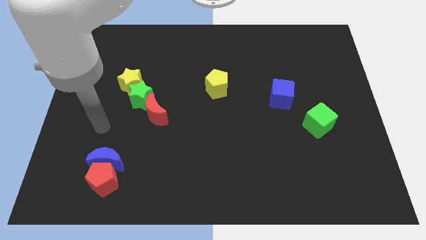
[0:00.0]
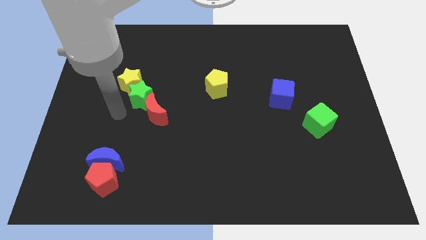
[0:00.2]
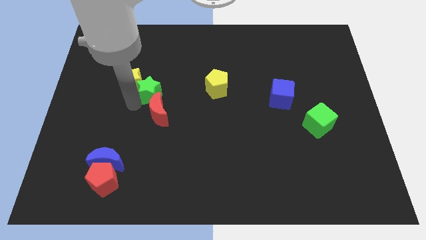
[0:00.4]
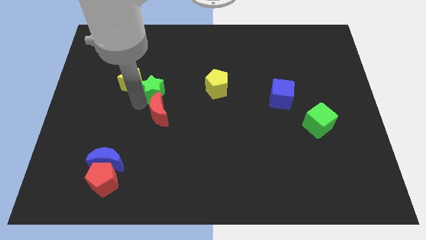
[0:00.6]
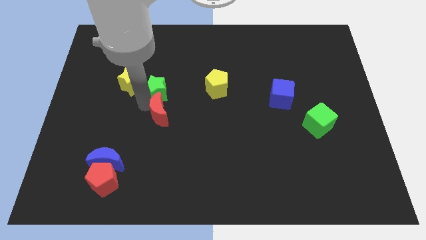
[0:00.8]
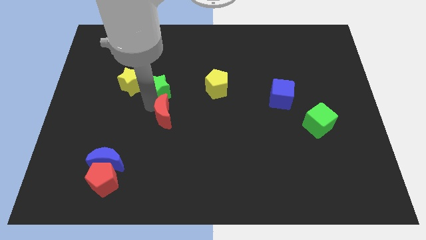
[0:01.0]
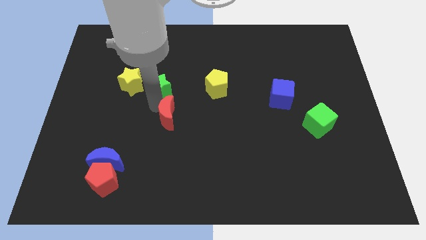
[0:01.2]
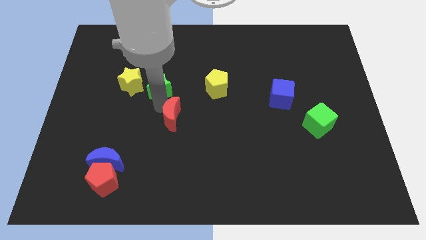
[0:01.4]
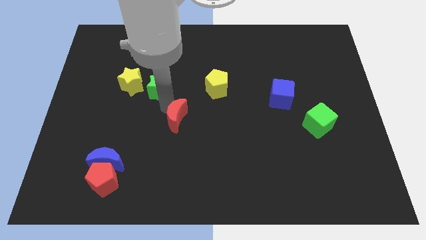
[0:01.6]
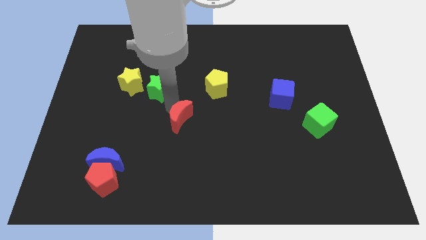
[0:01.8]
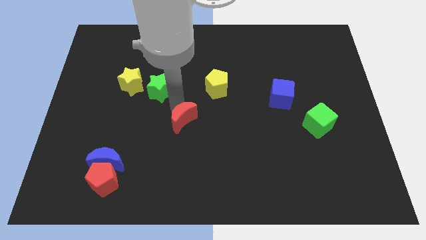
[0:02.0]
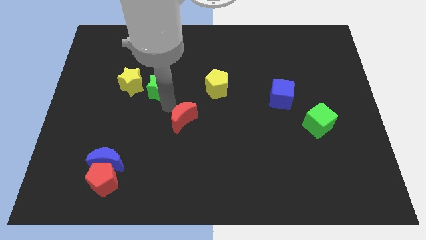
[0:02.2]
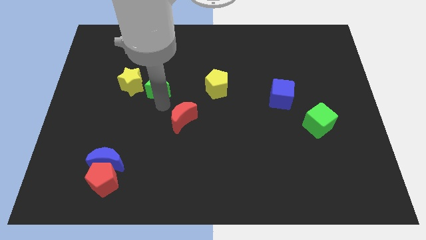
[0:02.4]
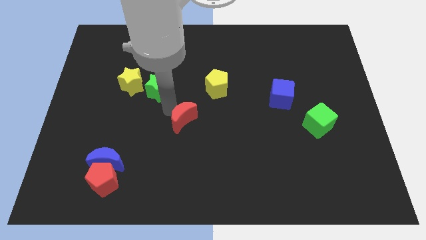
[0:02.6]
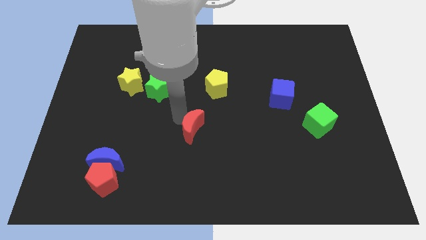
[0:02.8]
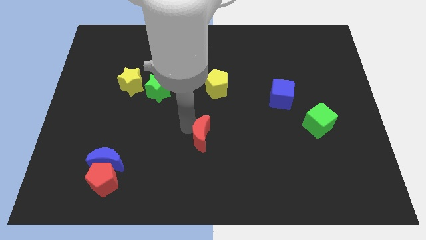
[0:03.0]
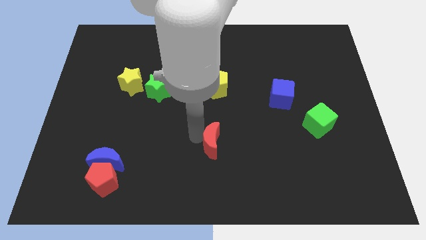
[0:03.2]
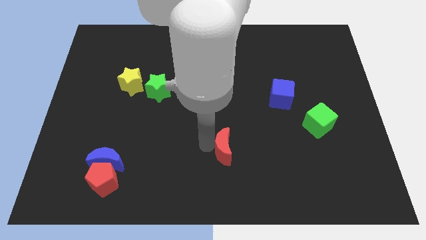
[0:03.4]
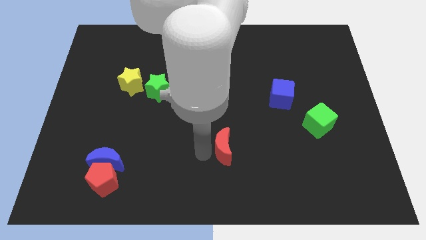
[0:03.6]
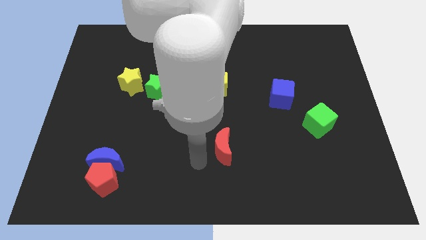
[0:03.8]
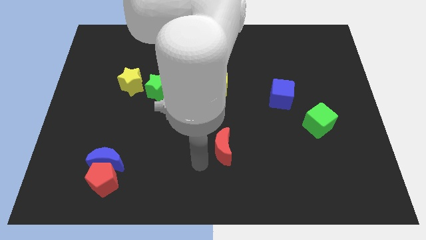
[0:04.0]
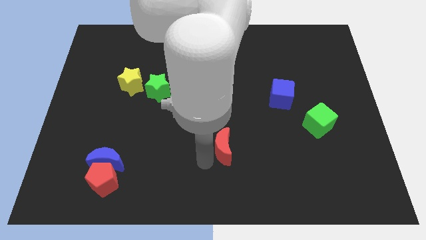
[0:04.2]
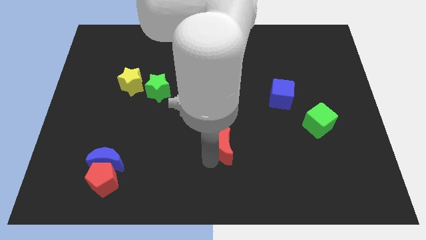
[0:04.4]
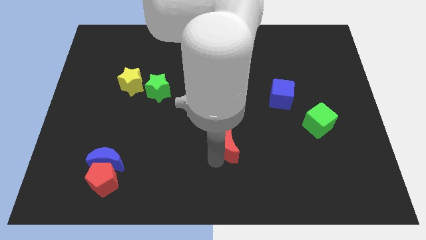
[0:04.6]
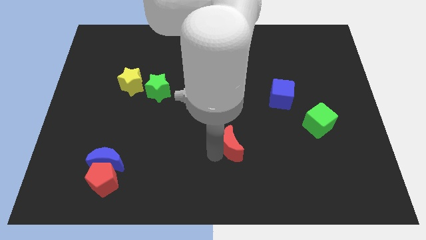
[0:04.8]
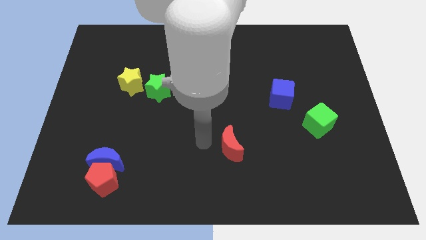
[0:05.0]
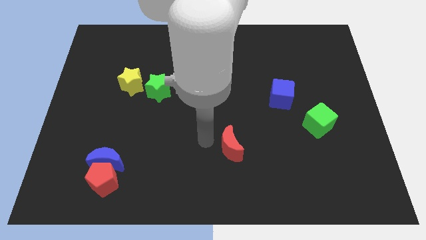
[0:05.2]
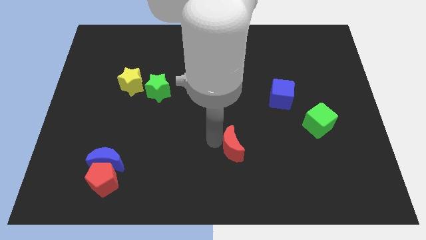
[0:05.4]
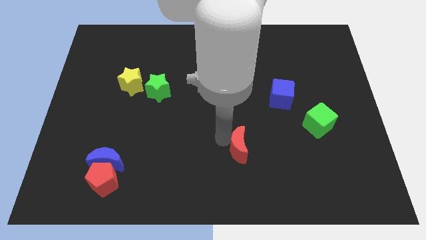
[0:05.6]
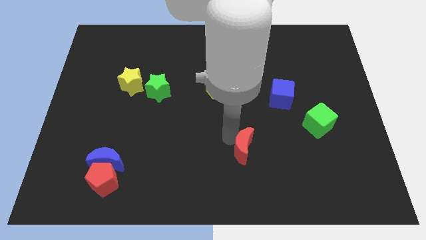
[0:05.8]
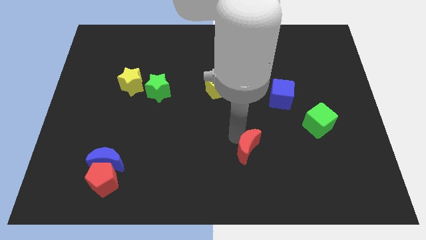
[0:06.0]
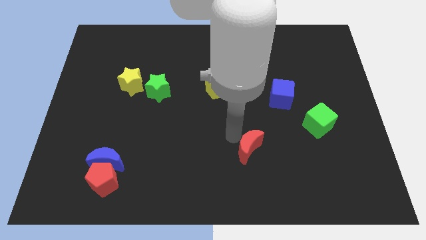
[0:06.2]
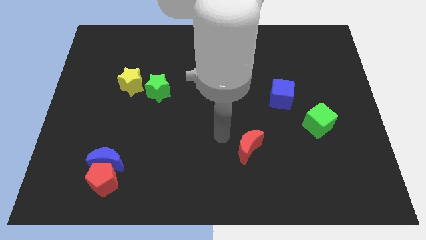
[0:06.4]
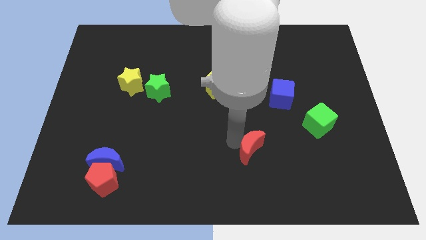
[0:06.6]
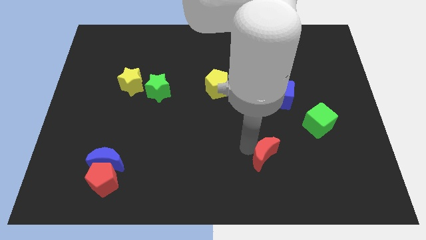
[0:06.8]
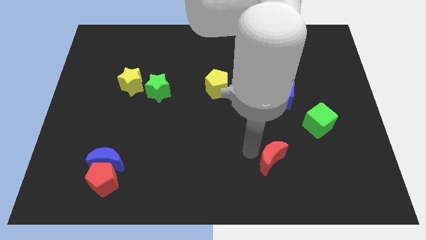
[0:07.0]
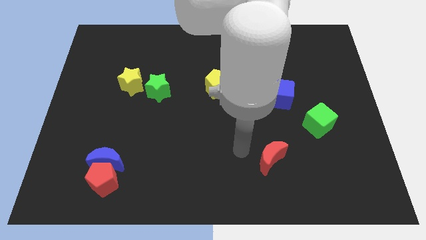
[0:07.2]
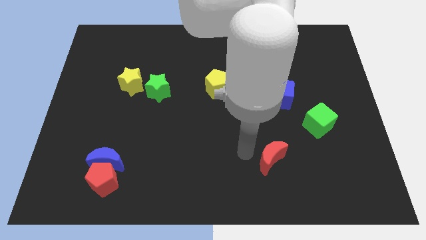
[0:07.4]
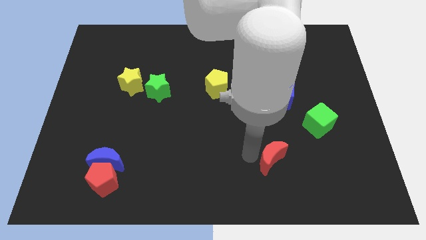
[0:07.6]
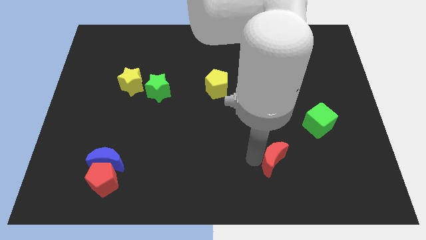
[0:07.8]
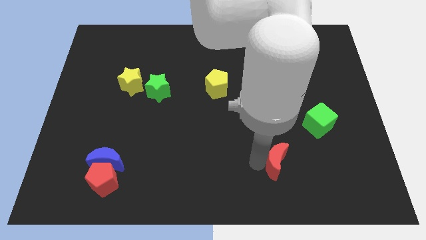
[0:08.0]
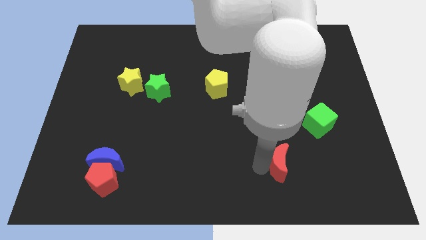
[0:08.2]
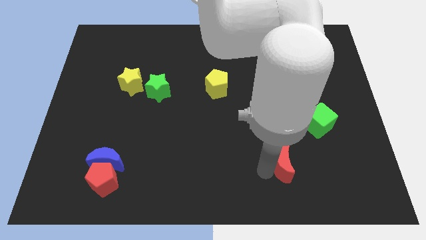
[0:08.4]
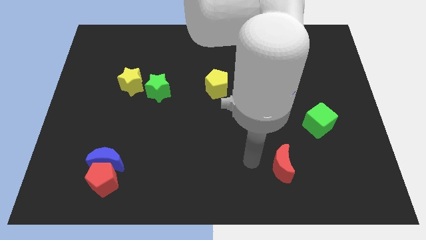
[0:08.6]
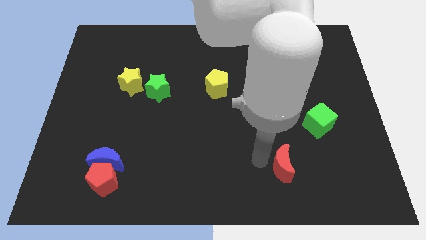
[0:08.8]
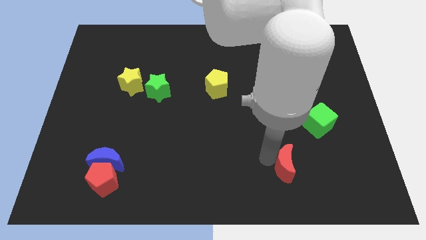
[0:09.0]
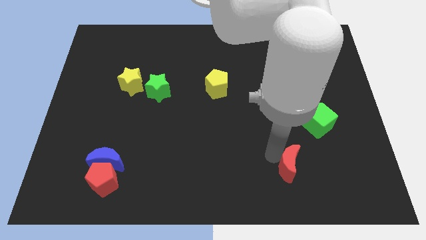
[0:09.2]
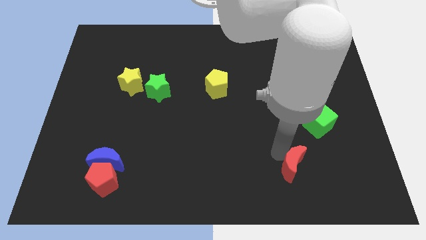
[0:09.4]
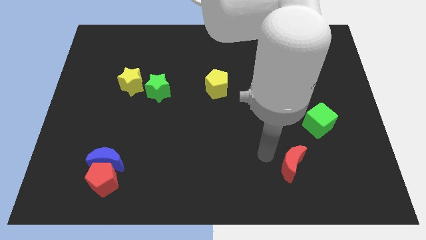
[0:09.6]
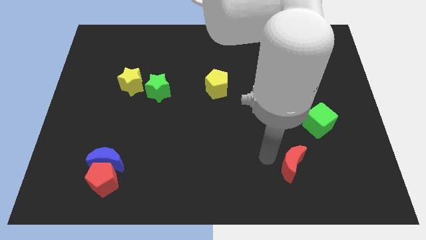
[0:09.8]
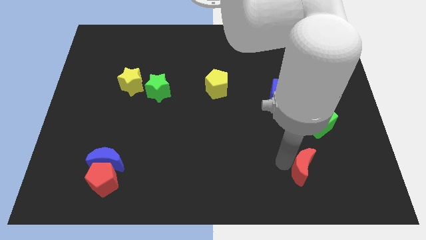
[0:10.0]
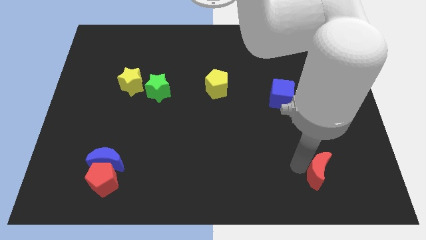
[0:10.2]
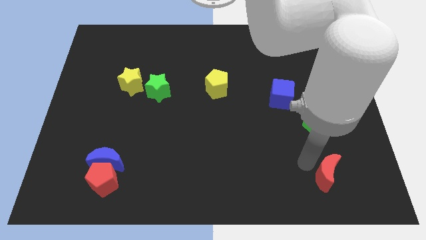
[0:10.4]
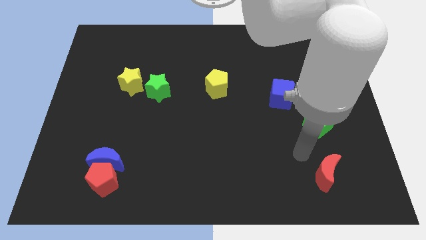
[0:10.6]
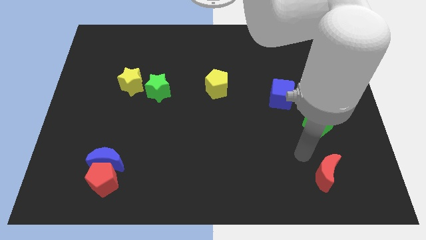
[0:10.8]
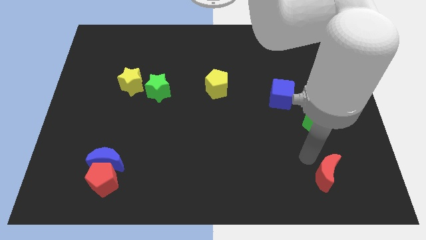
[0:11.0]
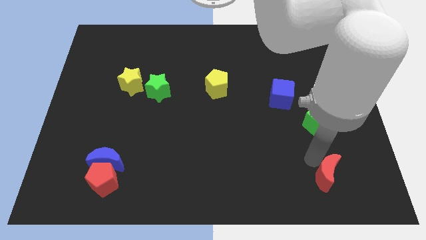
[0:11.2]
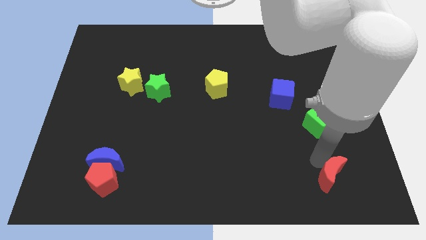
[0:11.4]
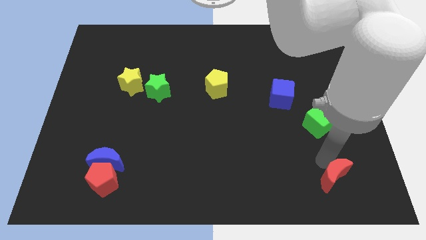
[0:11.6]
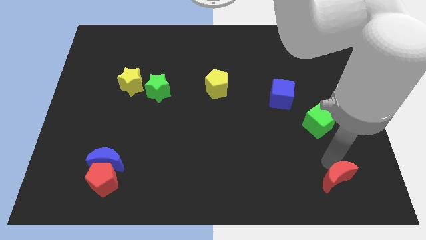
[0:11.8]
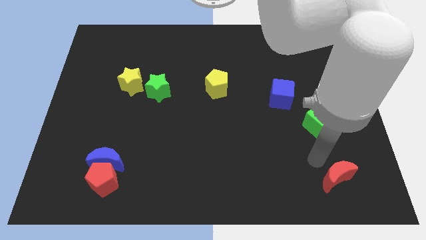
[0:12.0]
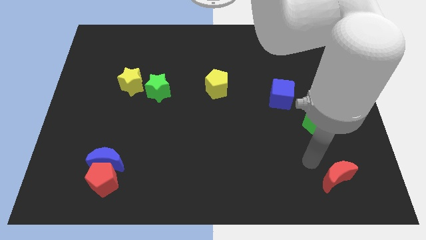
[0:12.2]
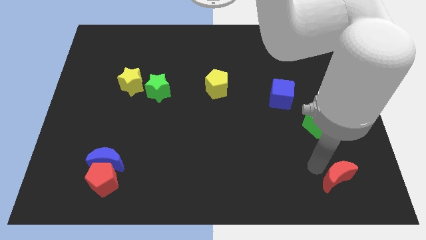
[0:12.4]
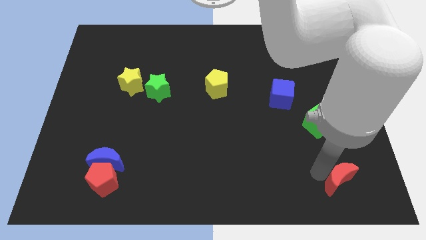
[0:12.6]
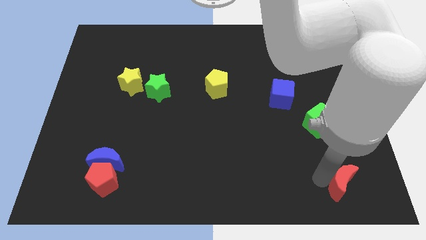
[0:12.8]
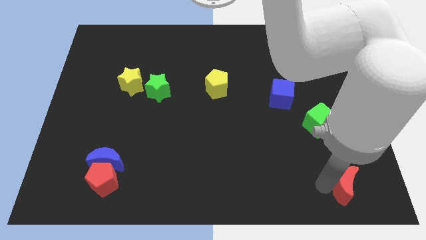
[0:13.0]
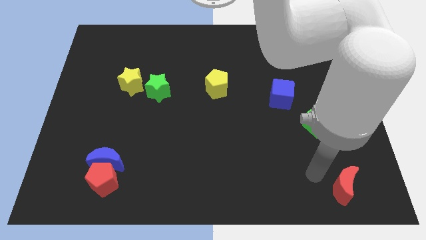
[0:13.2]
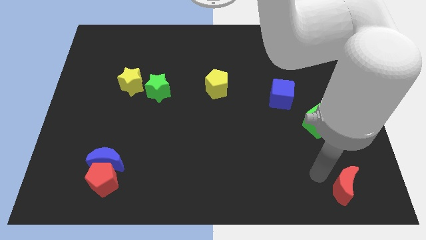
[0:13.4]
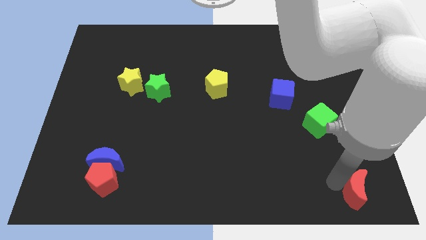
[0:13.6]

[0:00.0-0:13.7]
move the red moon to the bottom right
